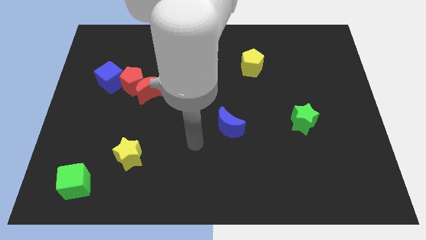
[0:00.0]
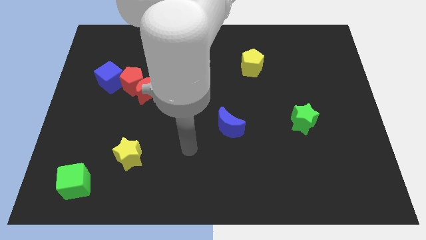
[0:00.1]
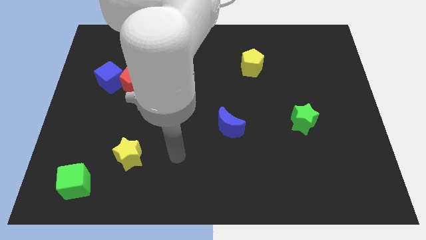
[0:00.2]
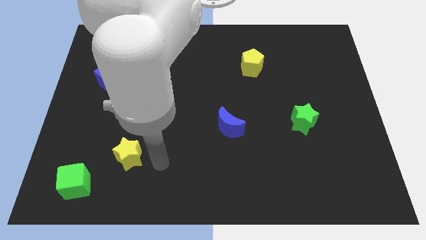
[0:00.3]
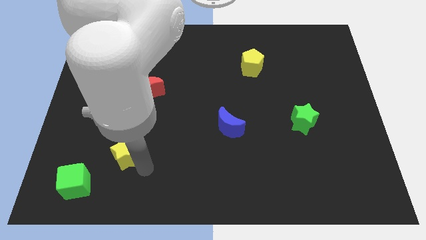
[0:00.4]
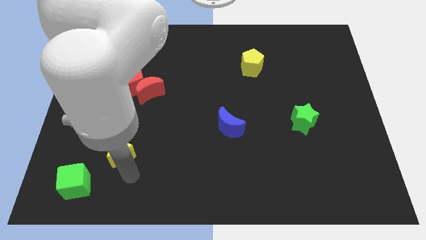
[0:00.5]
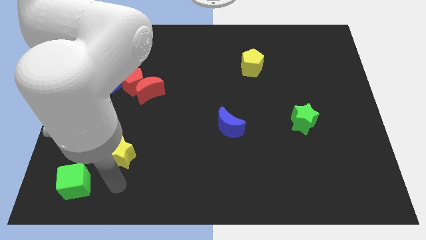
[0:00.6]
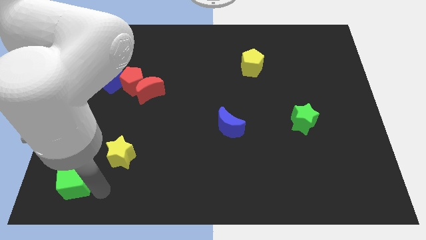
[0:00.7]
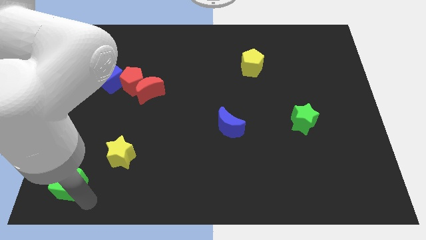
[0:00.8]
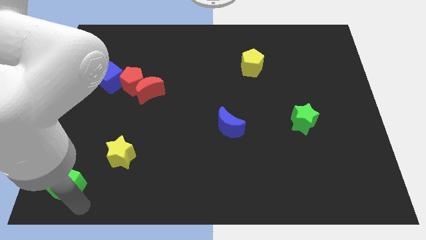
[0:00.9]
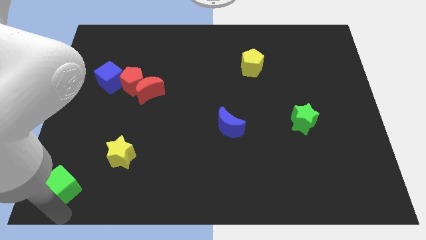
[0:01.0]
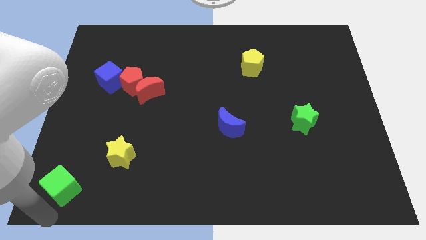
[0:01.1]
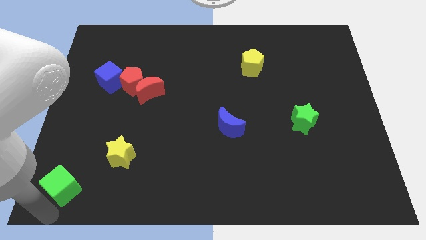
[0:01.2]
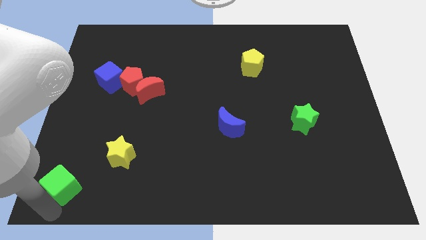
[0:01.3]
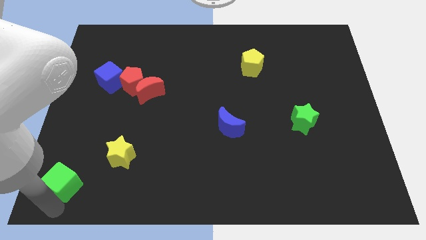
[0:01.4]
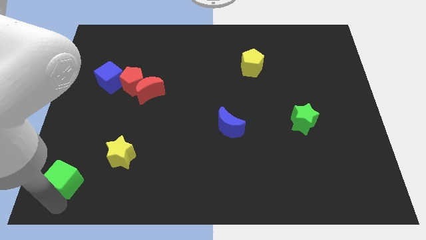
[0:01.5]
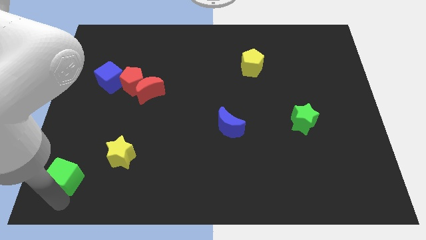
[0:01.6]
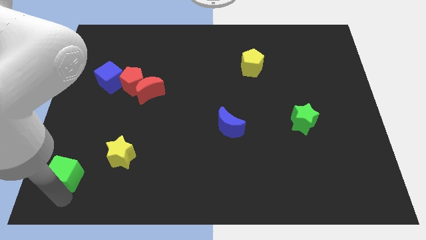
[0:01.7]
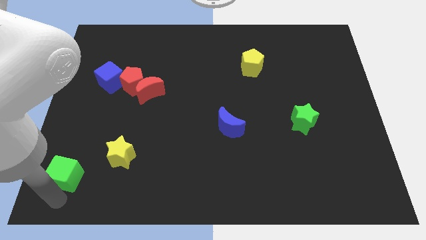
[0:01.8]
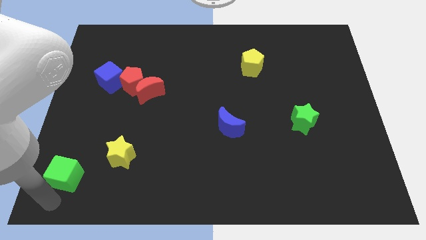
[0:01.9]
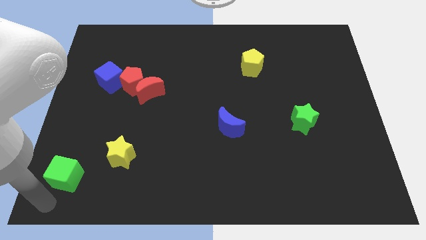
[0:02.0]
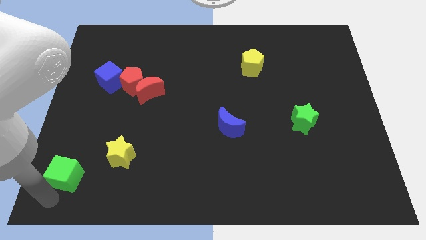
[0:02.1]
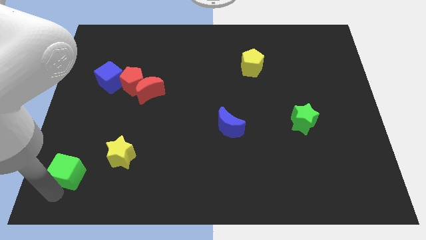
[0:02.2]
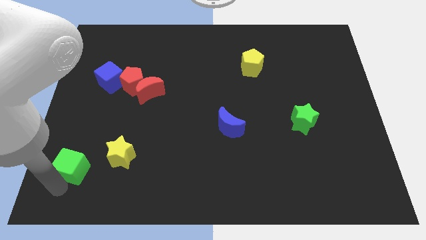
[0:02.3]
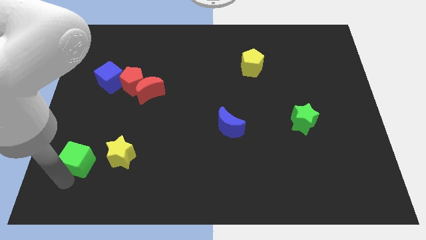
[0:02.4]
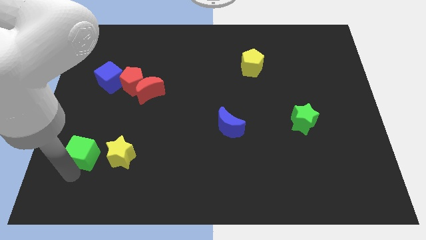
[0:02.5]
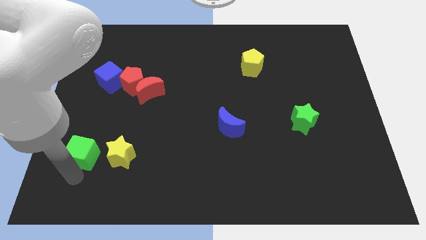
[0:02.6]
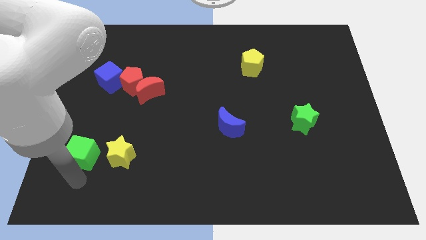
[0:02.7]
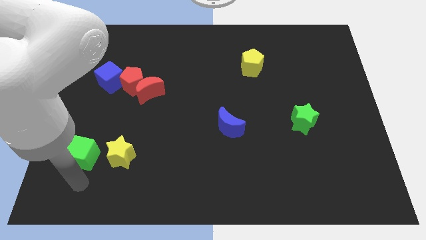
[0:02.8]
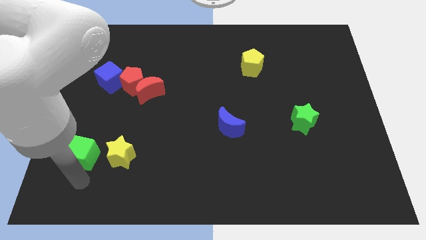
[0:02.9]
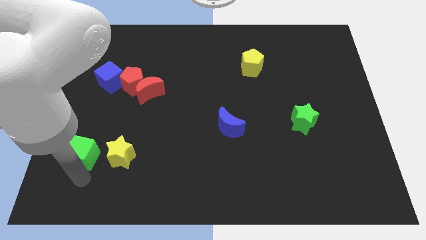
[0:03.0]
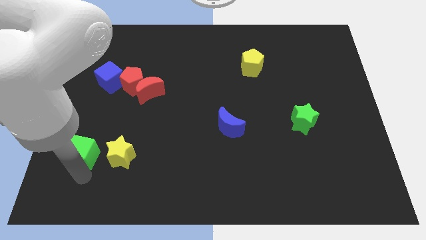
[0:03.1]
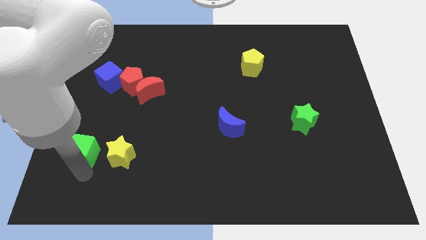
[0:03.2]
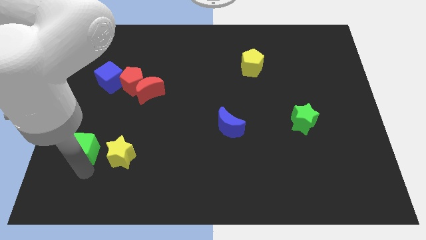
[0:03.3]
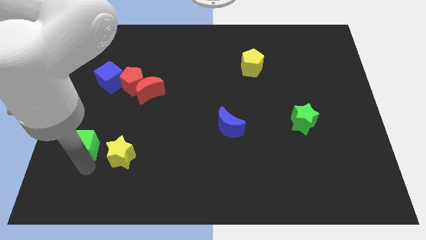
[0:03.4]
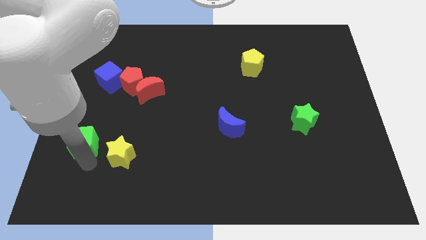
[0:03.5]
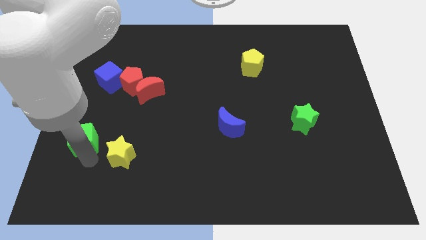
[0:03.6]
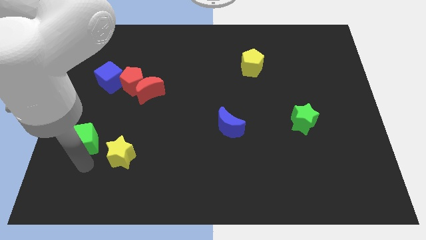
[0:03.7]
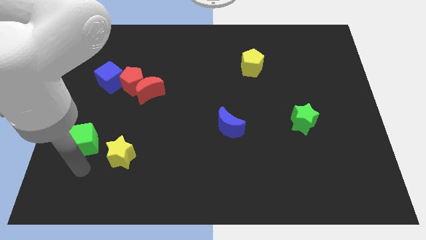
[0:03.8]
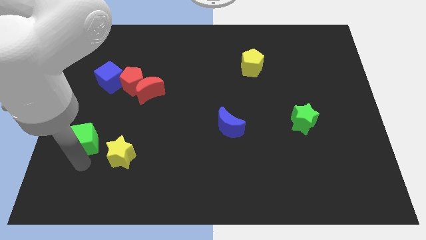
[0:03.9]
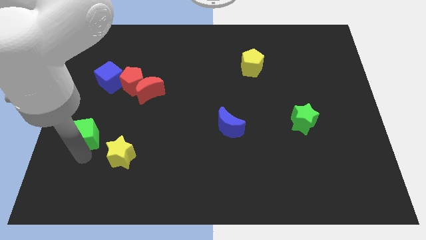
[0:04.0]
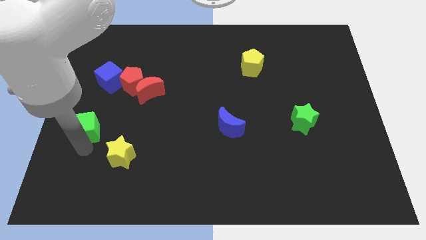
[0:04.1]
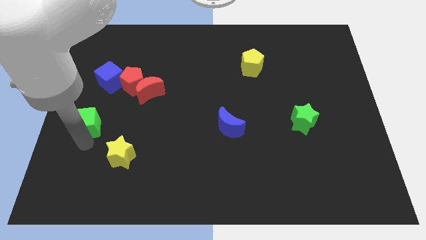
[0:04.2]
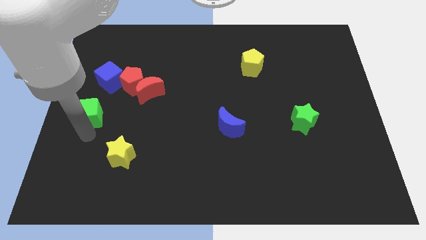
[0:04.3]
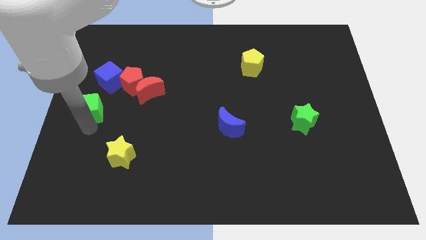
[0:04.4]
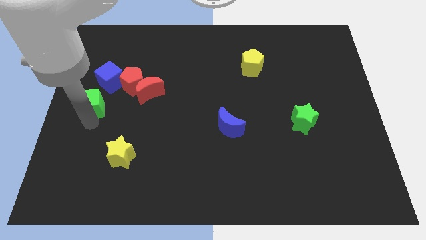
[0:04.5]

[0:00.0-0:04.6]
slide the green cube upwards

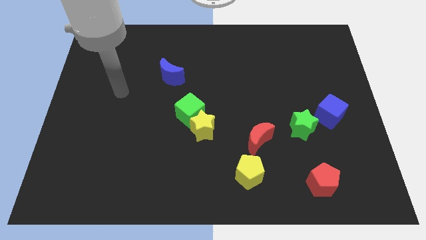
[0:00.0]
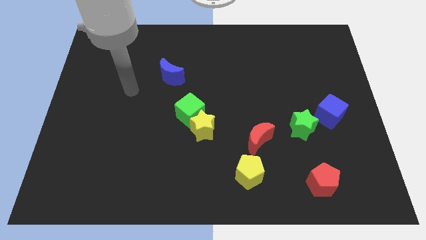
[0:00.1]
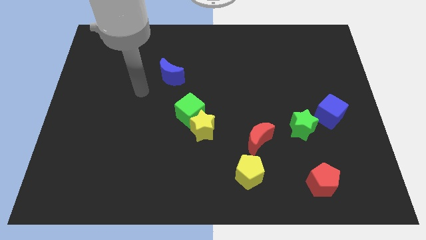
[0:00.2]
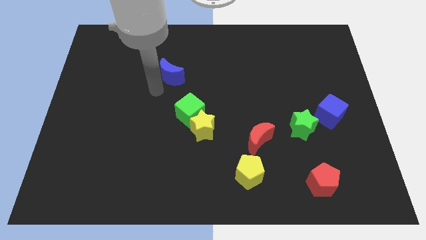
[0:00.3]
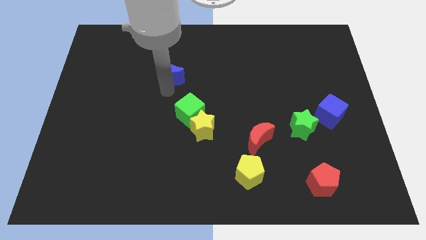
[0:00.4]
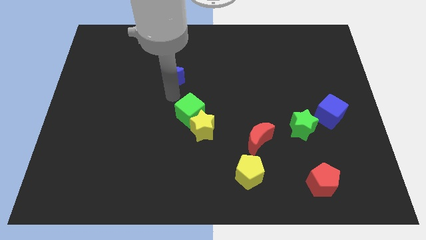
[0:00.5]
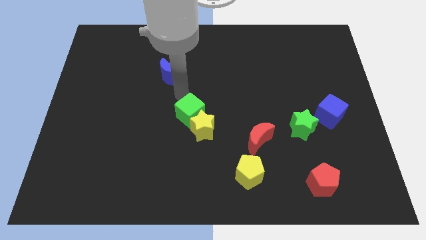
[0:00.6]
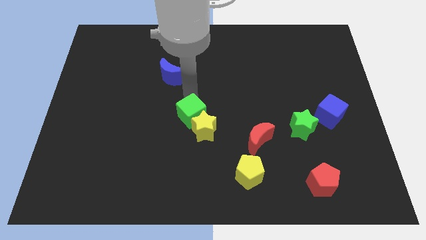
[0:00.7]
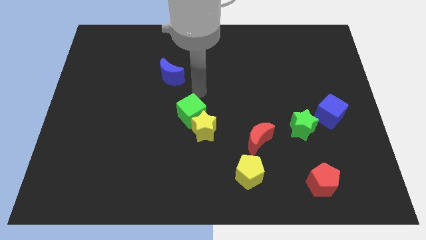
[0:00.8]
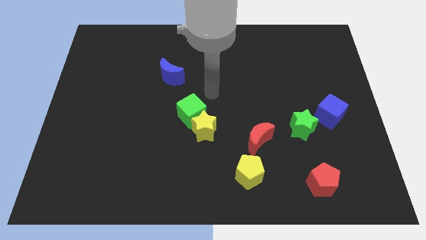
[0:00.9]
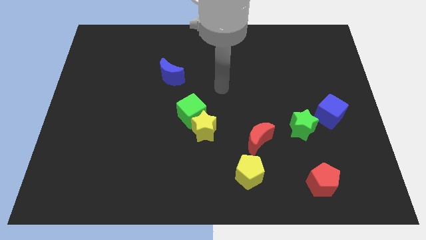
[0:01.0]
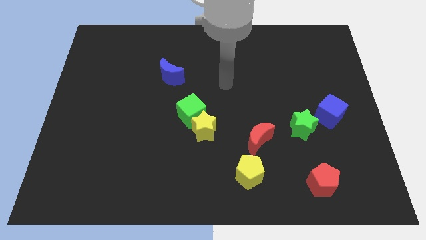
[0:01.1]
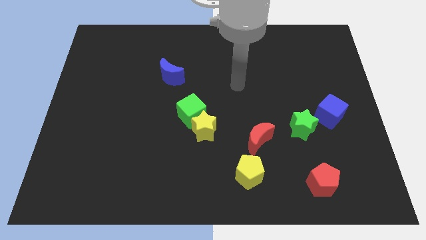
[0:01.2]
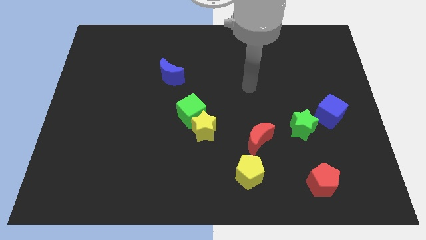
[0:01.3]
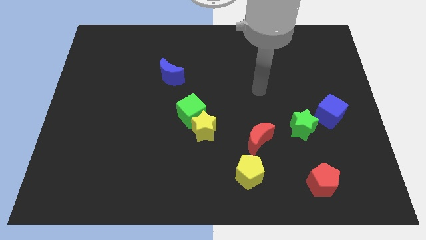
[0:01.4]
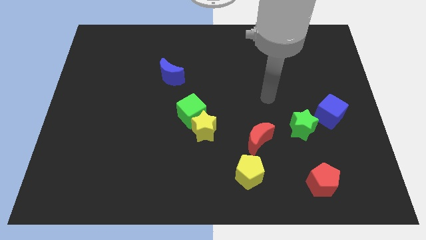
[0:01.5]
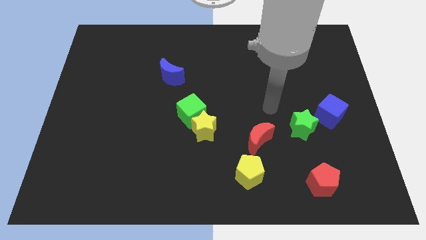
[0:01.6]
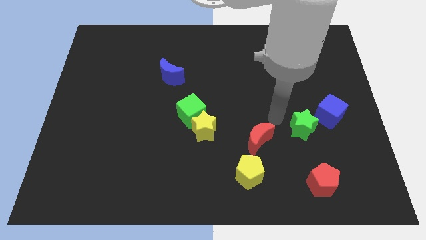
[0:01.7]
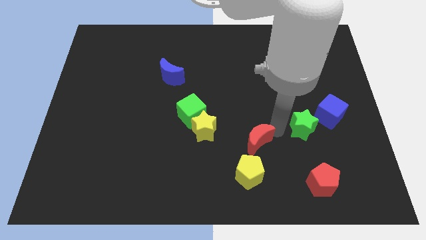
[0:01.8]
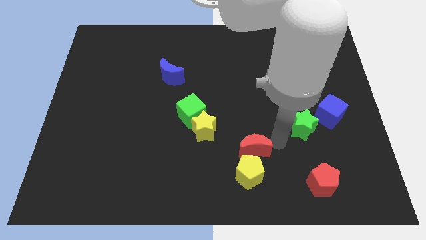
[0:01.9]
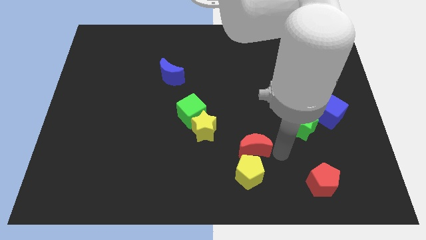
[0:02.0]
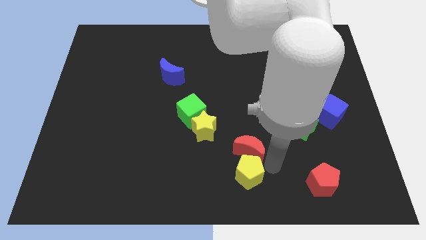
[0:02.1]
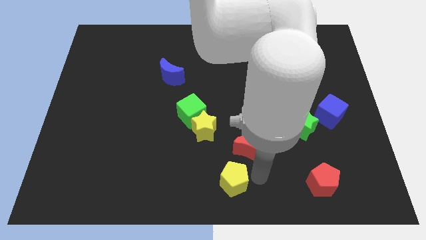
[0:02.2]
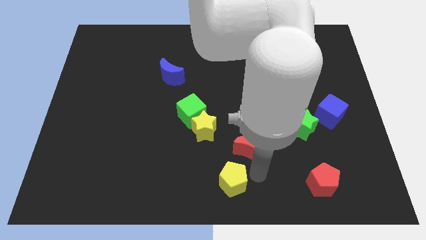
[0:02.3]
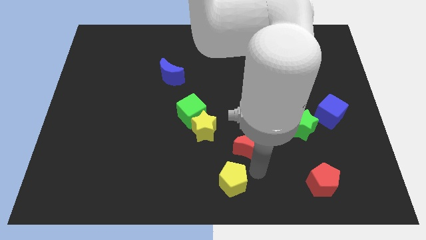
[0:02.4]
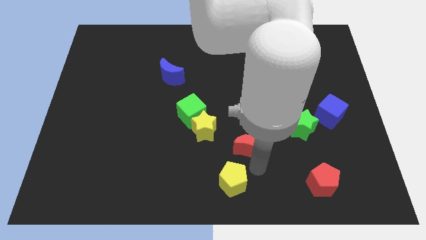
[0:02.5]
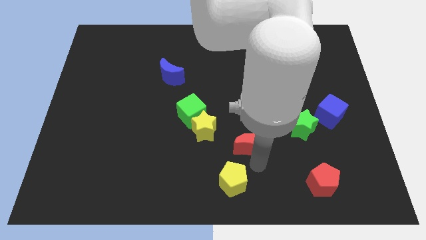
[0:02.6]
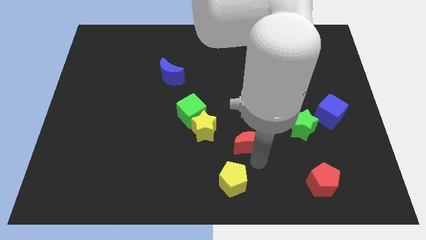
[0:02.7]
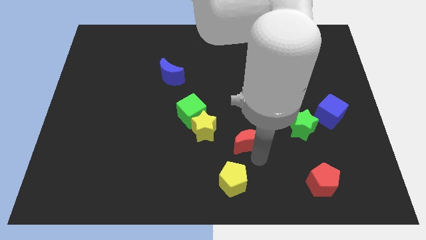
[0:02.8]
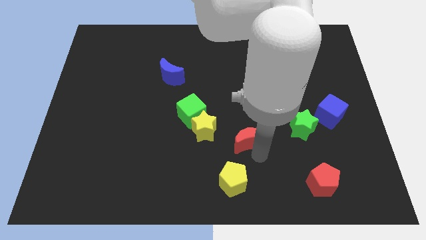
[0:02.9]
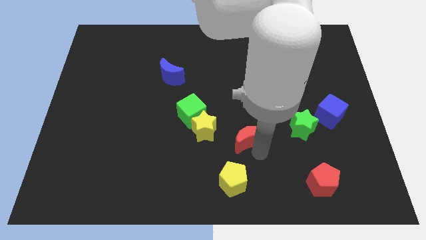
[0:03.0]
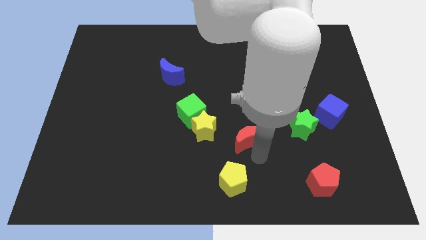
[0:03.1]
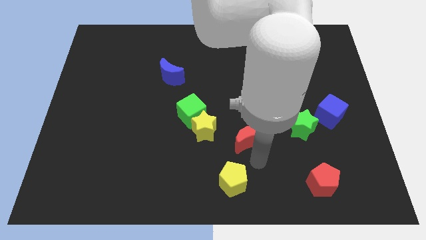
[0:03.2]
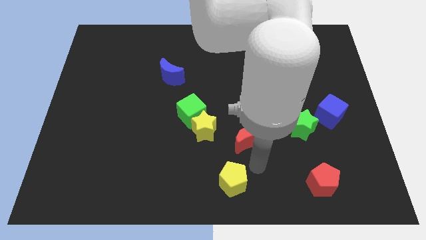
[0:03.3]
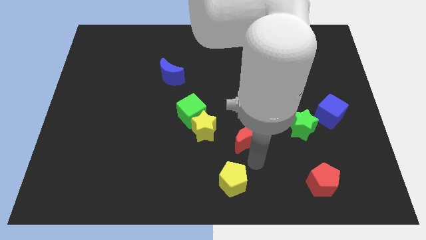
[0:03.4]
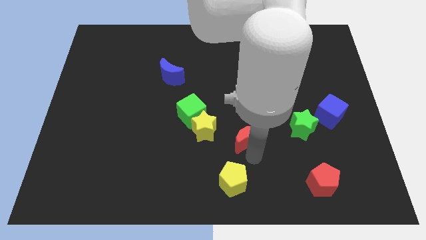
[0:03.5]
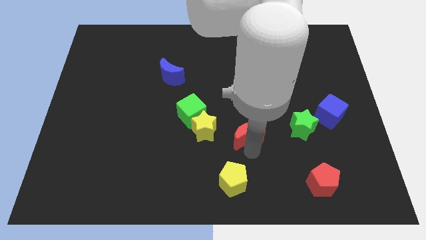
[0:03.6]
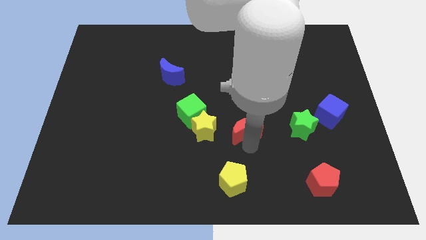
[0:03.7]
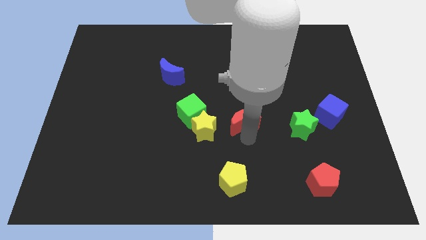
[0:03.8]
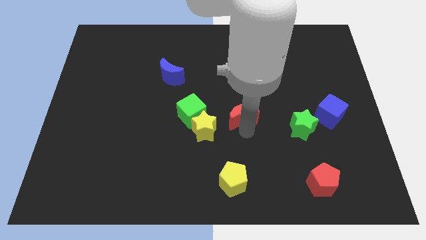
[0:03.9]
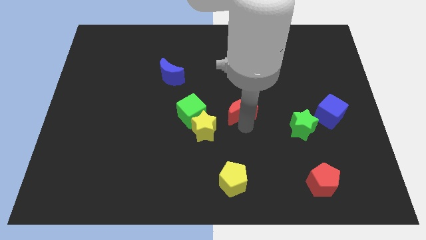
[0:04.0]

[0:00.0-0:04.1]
move the red moon up and to the left slightly
